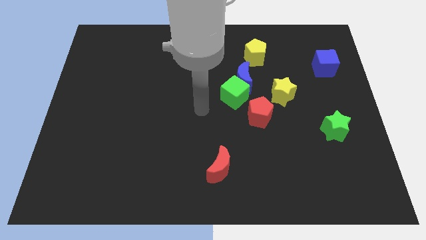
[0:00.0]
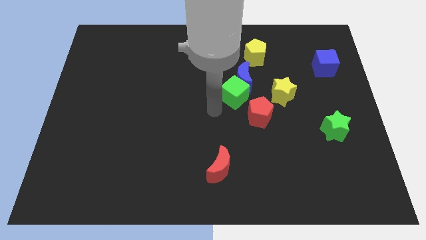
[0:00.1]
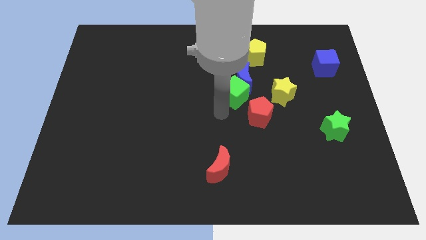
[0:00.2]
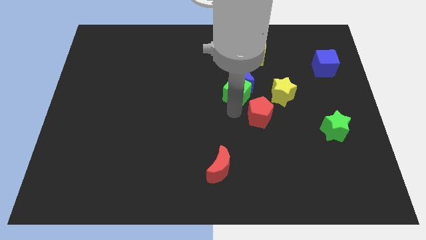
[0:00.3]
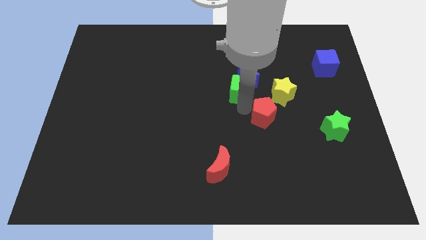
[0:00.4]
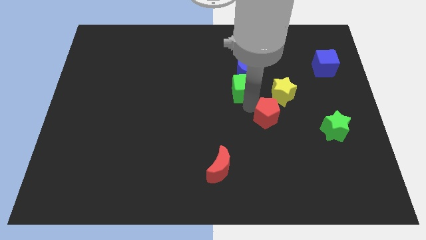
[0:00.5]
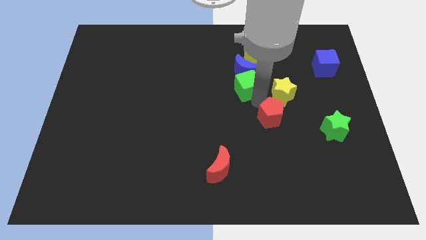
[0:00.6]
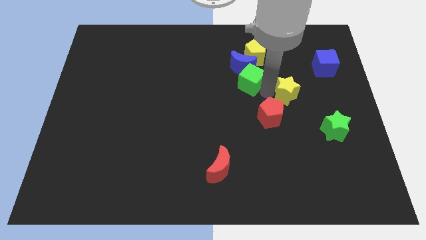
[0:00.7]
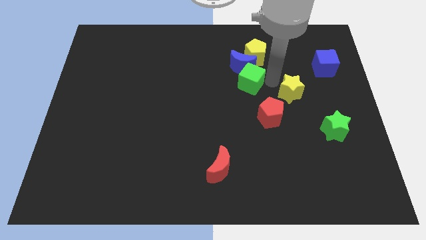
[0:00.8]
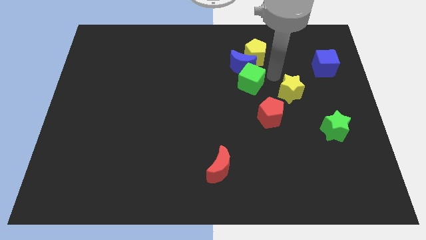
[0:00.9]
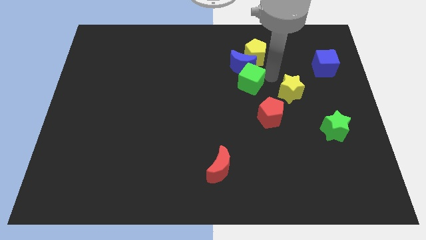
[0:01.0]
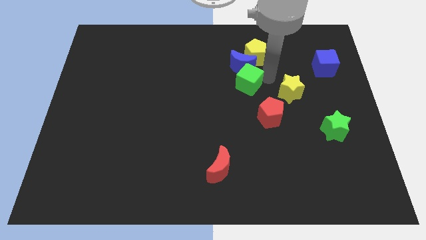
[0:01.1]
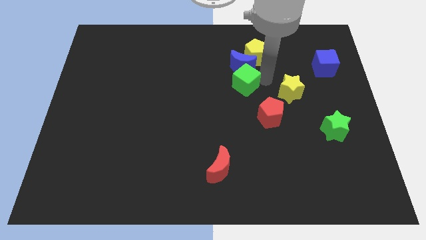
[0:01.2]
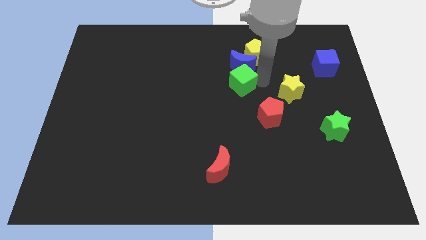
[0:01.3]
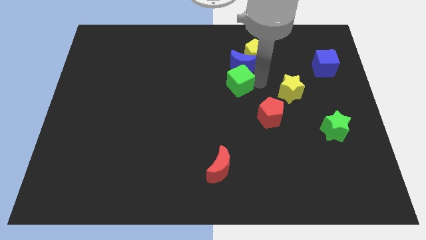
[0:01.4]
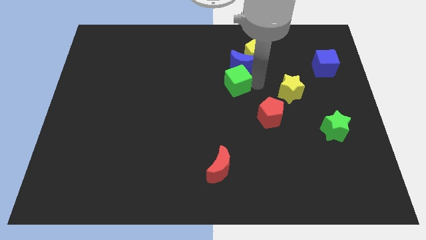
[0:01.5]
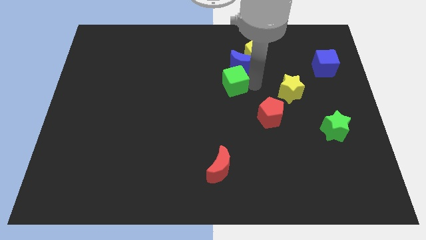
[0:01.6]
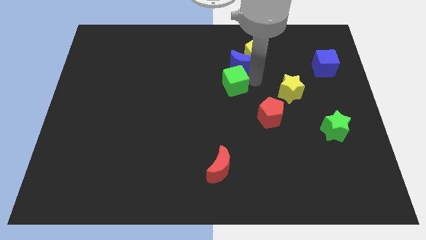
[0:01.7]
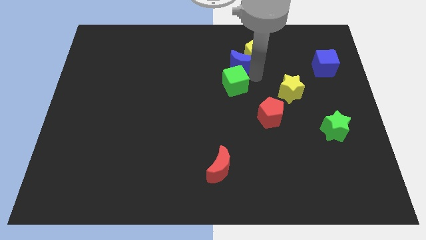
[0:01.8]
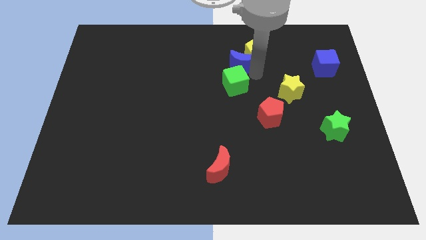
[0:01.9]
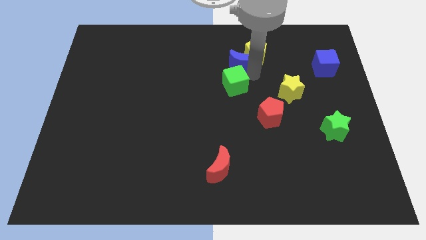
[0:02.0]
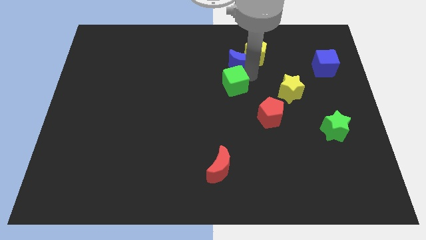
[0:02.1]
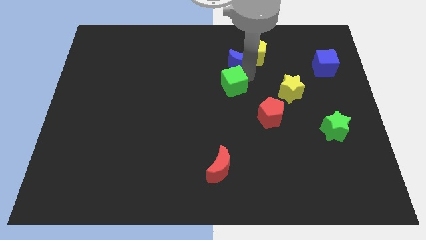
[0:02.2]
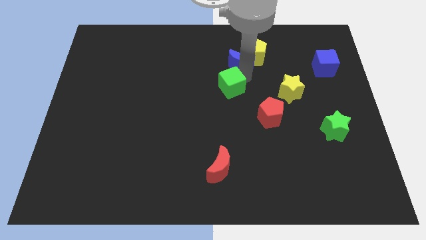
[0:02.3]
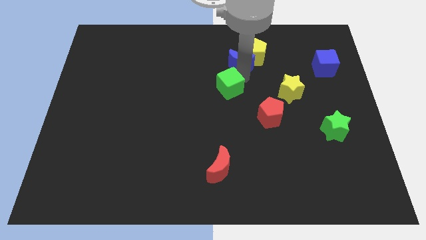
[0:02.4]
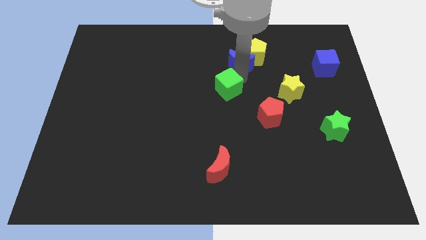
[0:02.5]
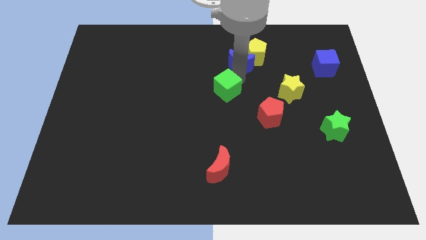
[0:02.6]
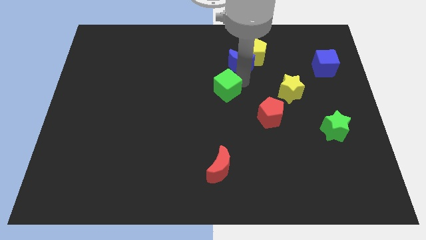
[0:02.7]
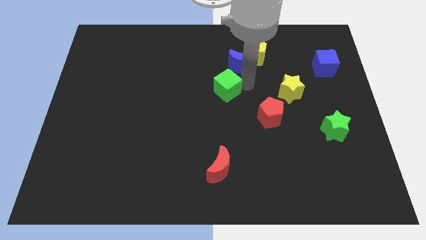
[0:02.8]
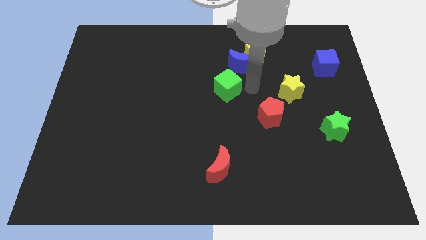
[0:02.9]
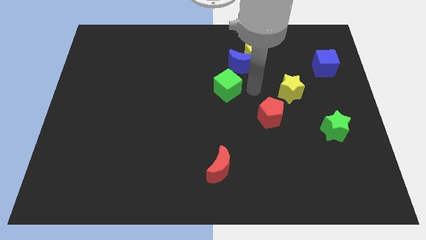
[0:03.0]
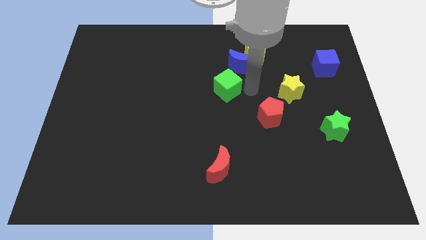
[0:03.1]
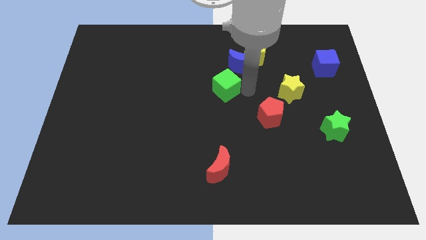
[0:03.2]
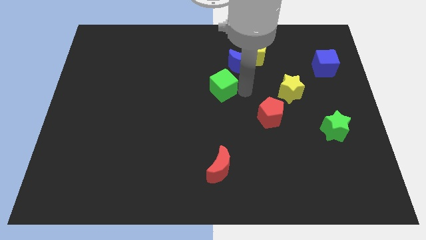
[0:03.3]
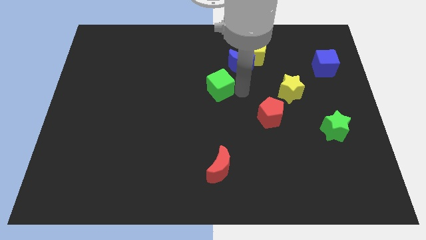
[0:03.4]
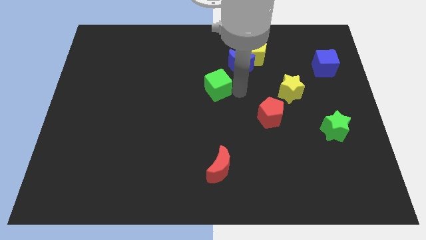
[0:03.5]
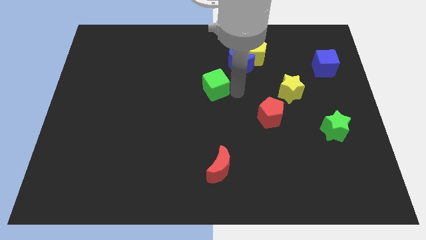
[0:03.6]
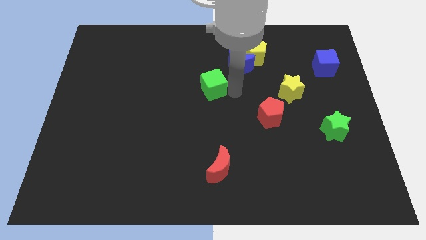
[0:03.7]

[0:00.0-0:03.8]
separate the green cube from the blue moon and red pentagon

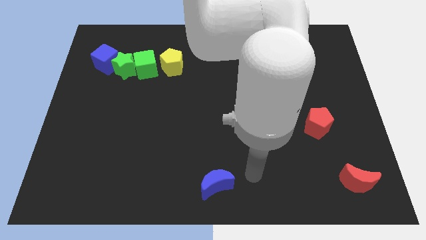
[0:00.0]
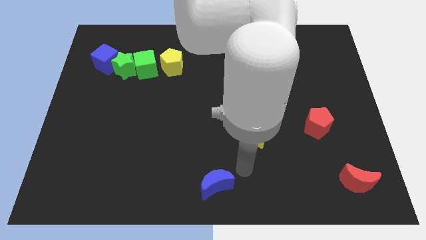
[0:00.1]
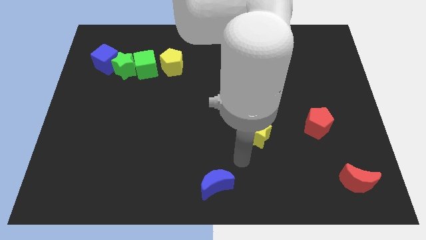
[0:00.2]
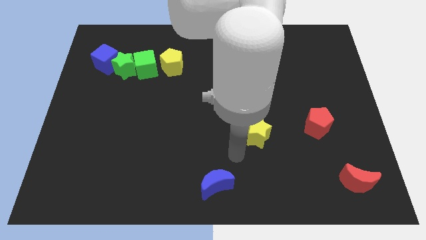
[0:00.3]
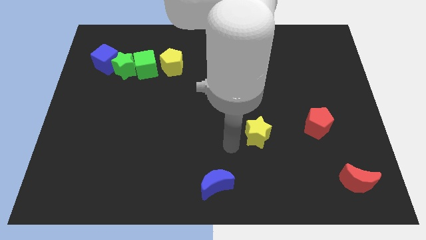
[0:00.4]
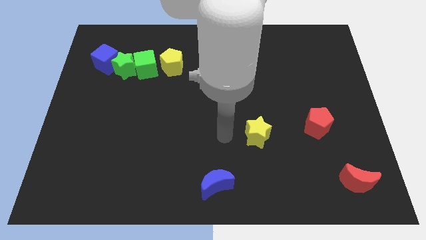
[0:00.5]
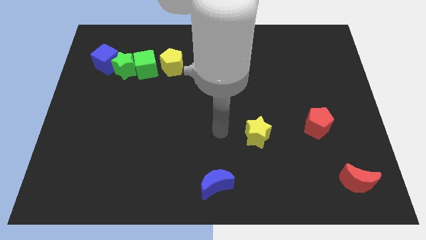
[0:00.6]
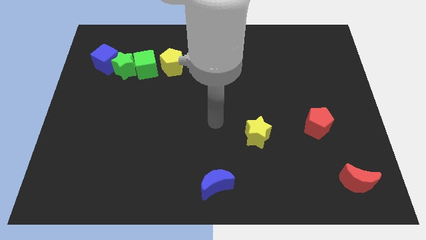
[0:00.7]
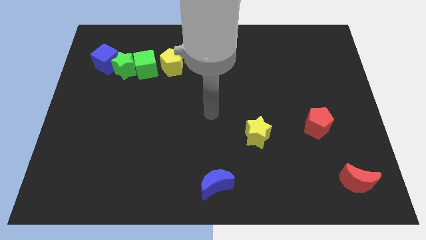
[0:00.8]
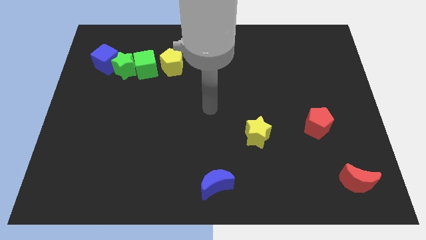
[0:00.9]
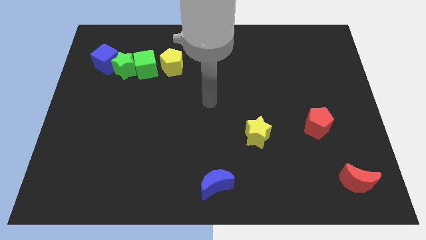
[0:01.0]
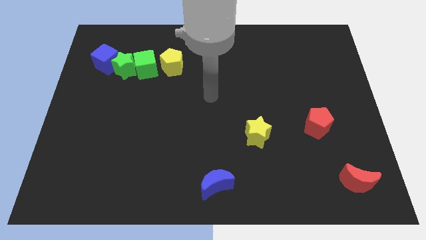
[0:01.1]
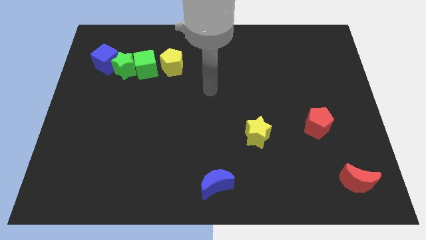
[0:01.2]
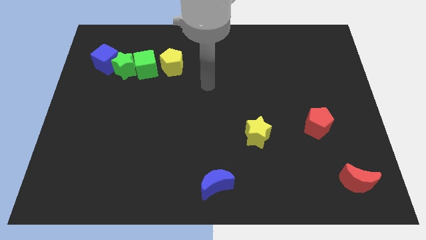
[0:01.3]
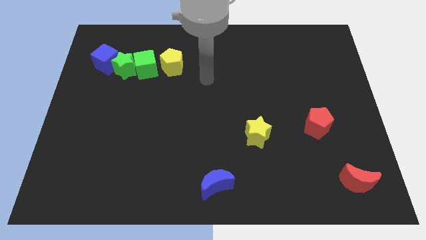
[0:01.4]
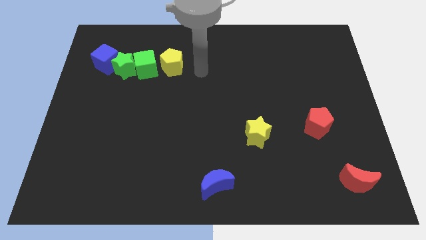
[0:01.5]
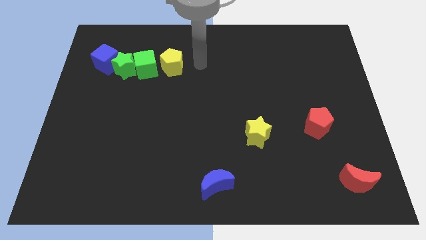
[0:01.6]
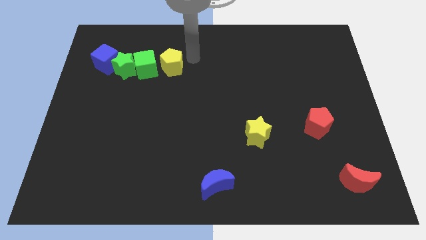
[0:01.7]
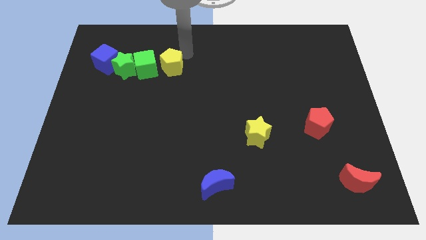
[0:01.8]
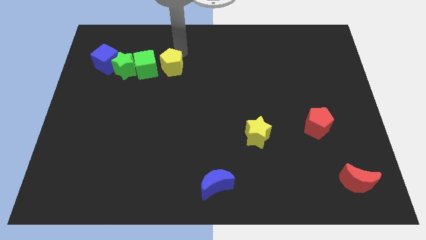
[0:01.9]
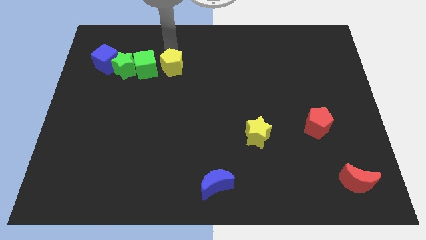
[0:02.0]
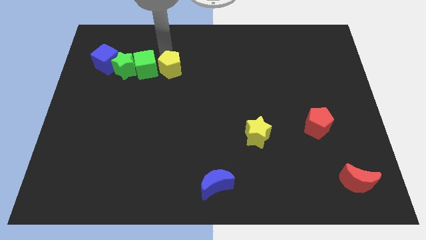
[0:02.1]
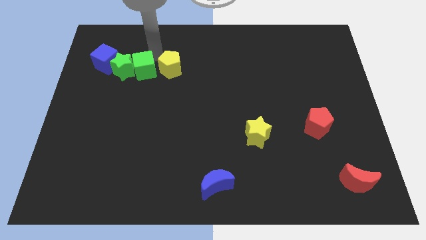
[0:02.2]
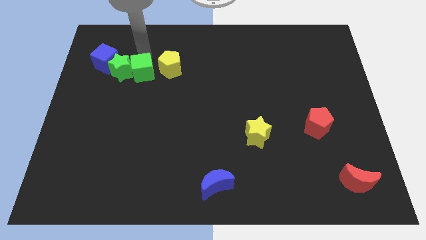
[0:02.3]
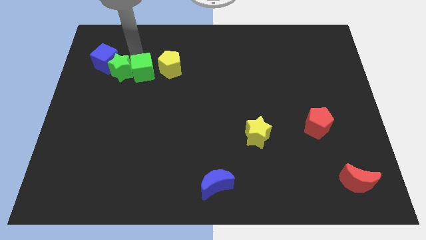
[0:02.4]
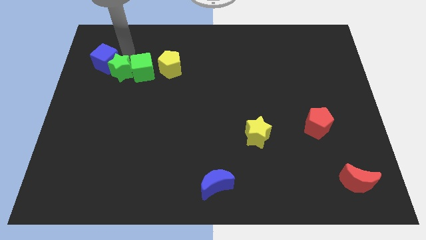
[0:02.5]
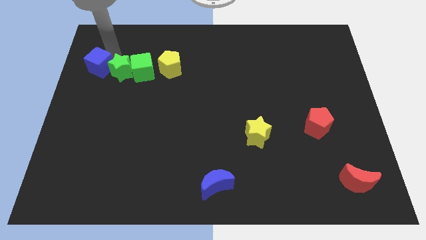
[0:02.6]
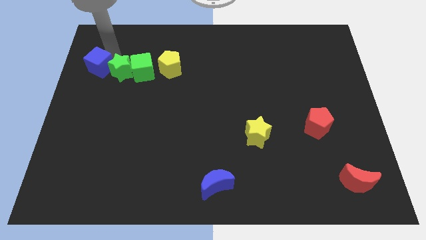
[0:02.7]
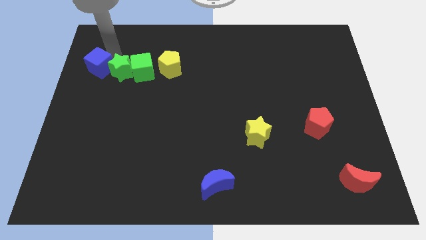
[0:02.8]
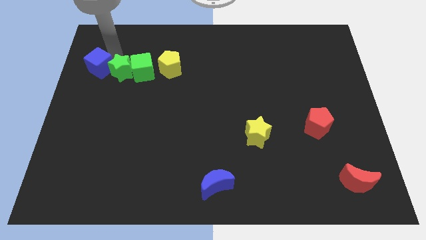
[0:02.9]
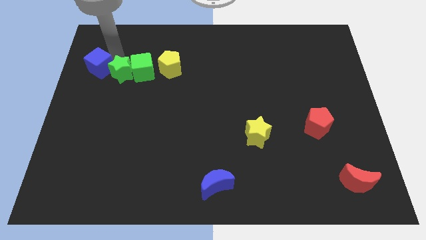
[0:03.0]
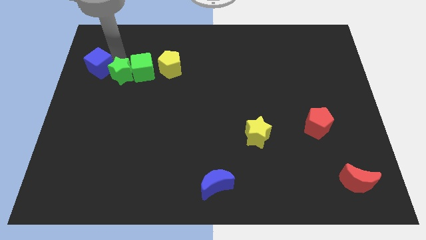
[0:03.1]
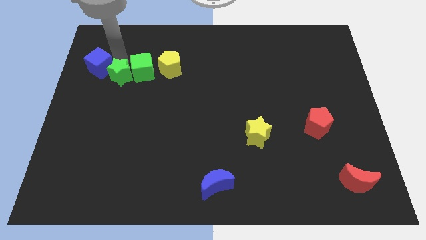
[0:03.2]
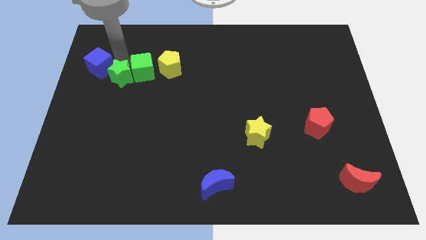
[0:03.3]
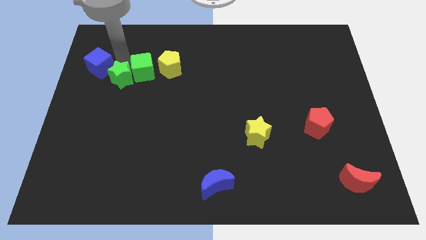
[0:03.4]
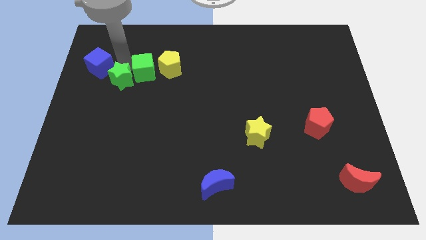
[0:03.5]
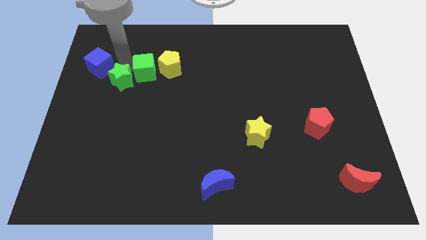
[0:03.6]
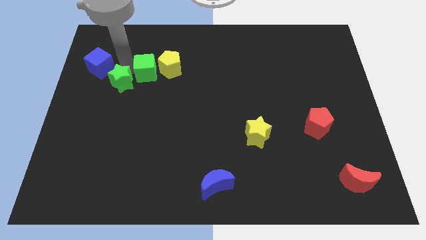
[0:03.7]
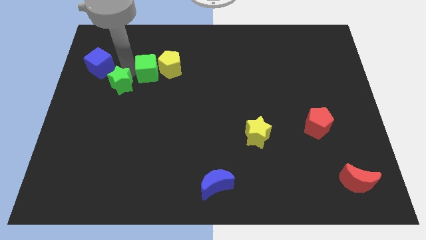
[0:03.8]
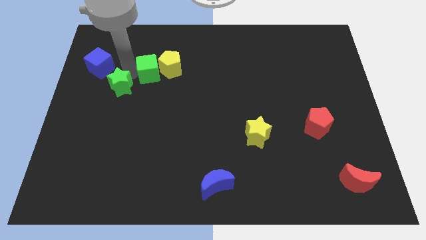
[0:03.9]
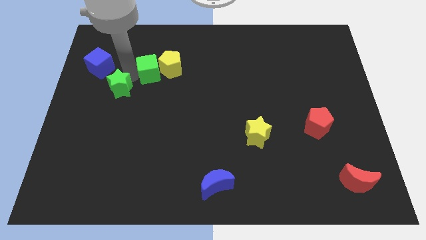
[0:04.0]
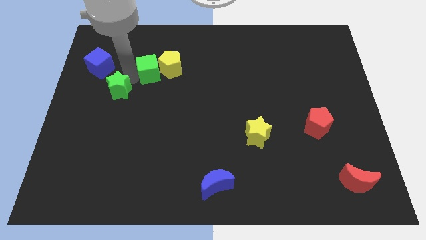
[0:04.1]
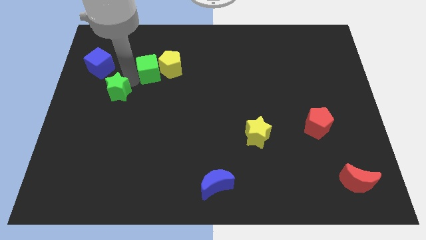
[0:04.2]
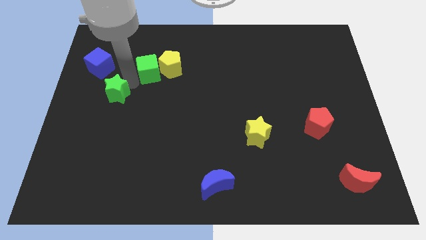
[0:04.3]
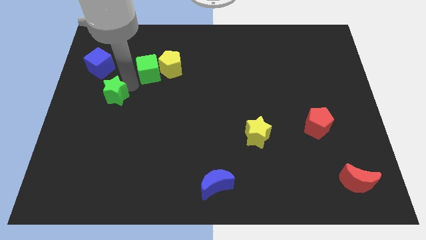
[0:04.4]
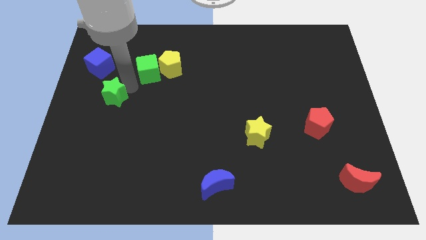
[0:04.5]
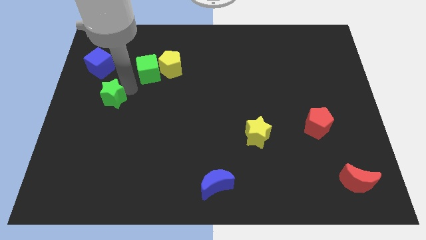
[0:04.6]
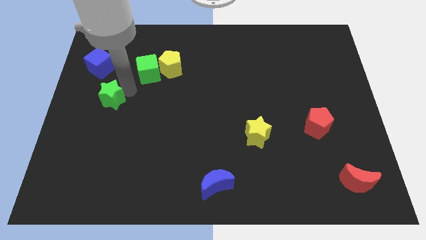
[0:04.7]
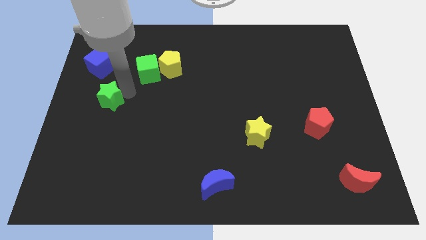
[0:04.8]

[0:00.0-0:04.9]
move the green star away from the green cube and blue cube

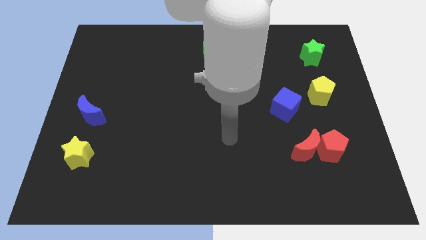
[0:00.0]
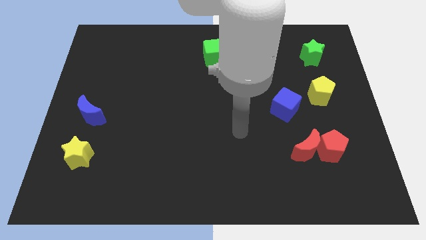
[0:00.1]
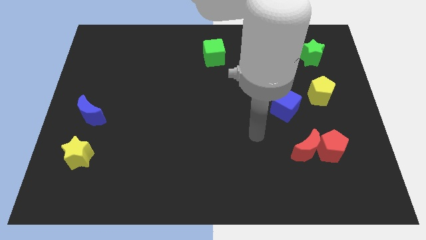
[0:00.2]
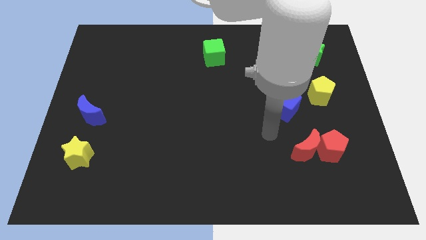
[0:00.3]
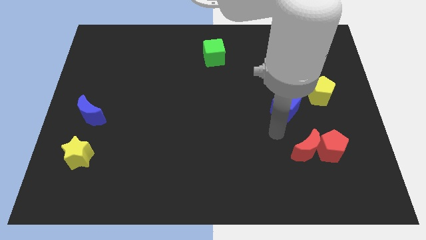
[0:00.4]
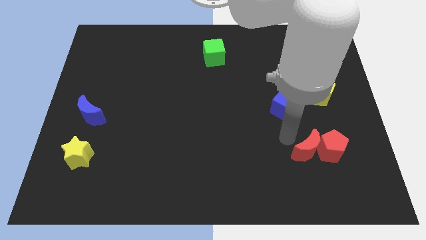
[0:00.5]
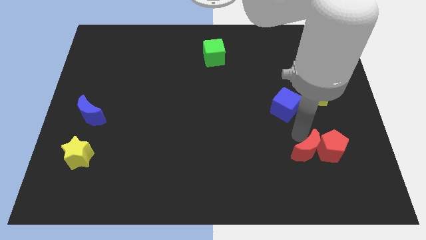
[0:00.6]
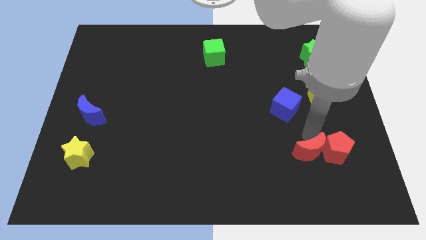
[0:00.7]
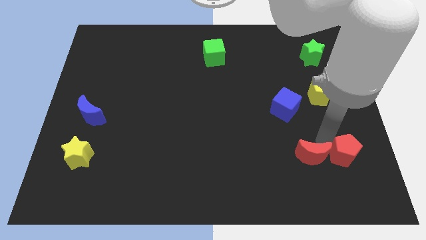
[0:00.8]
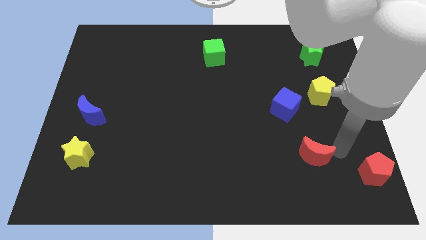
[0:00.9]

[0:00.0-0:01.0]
separate the red moon from the red pentagon
